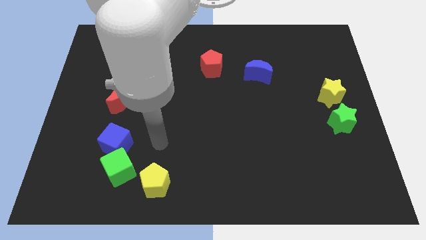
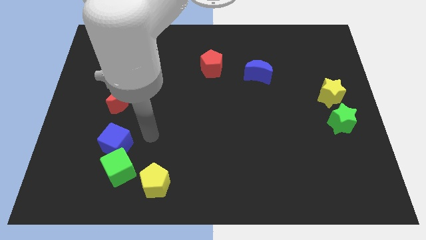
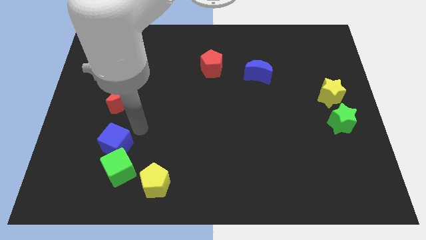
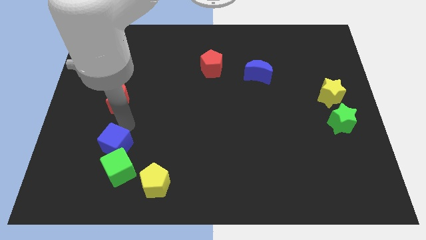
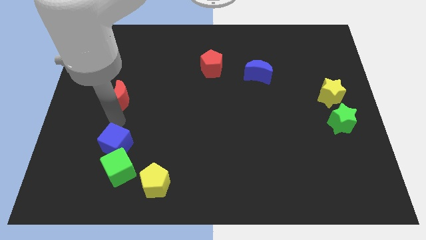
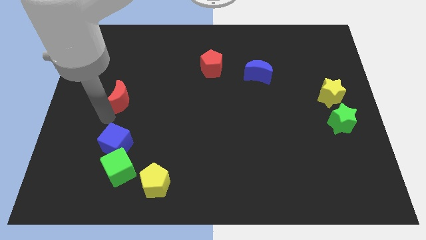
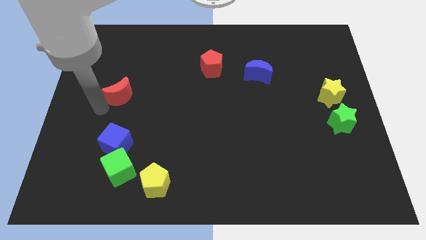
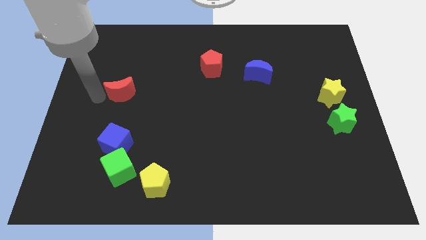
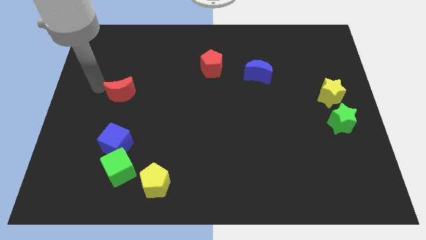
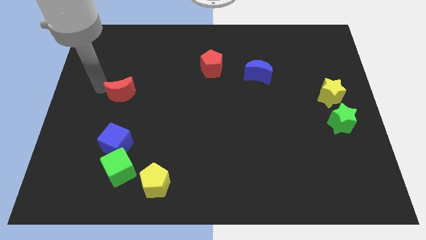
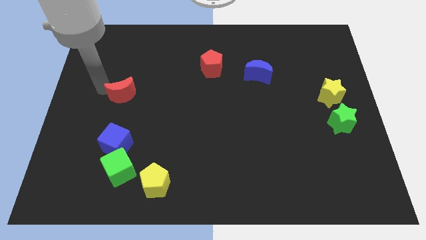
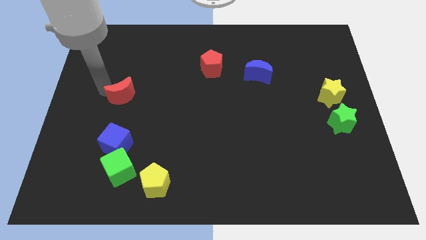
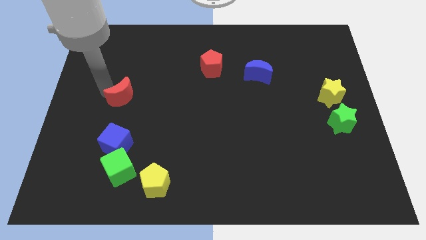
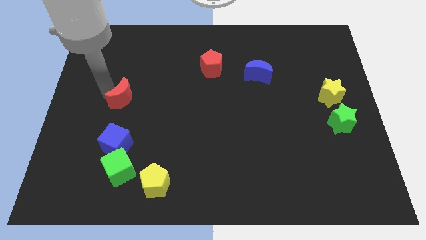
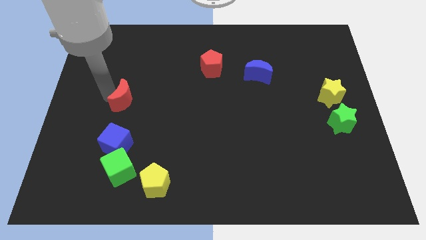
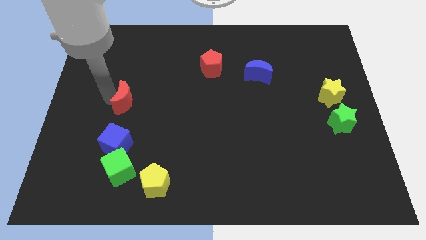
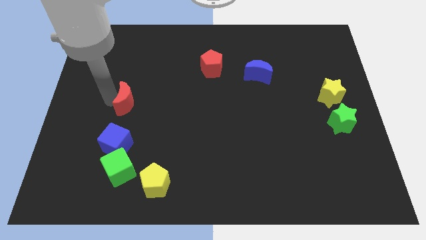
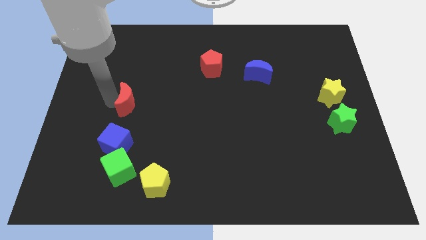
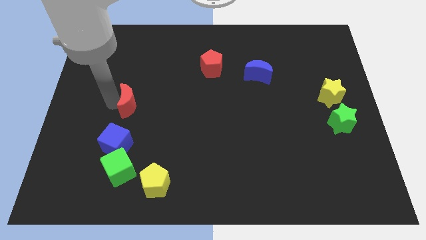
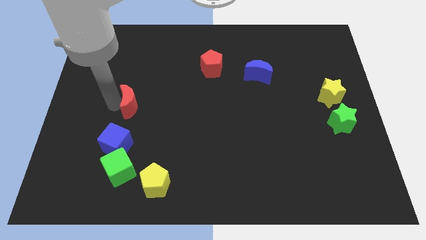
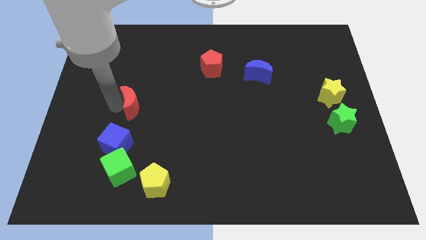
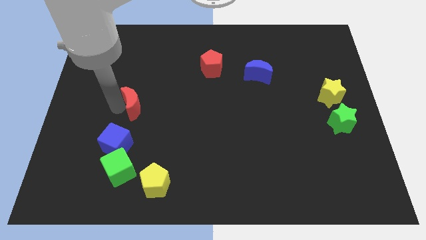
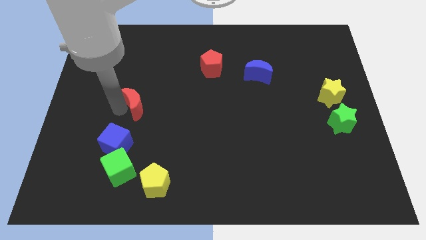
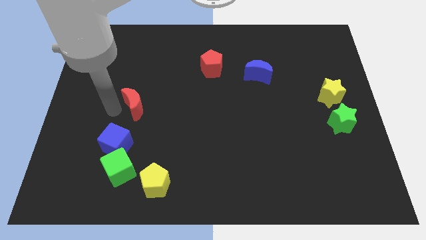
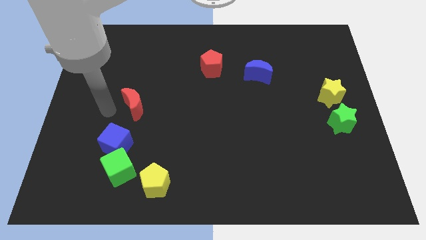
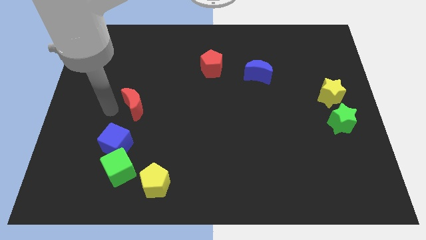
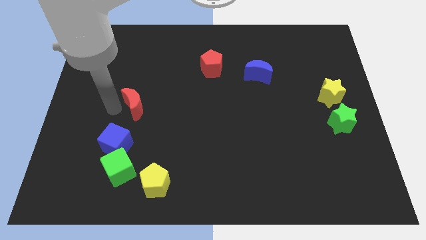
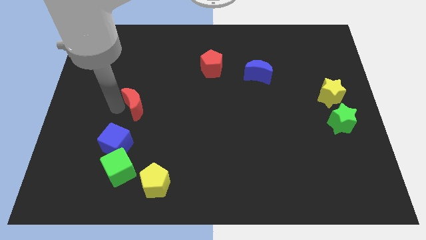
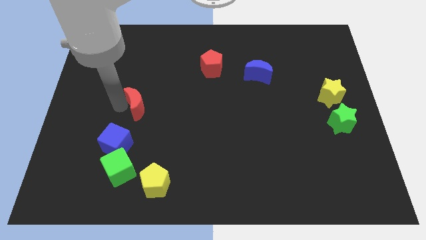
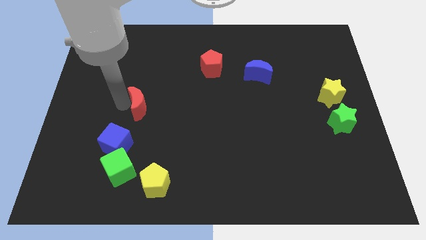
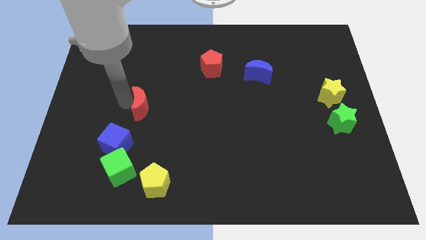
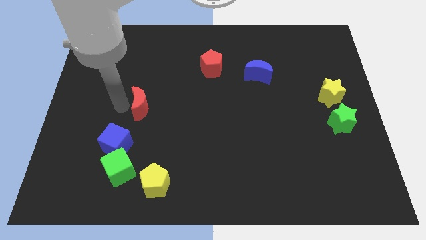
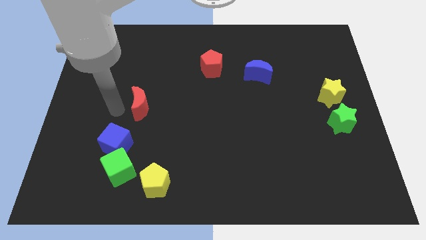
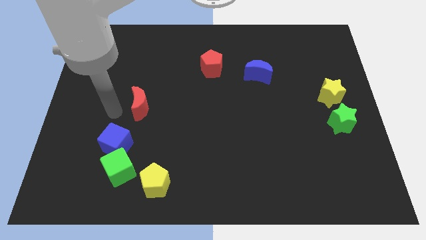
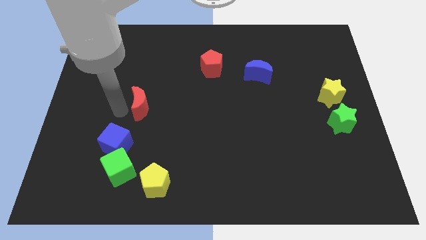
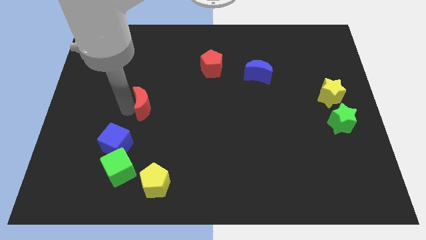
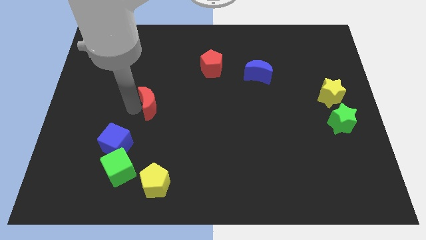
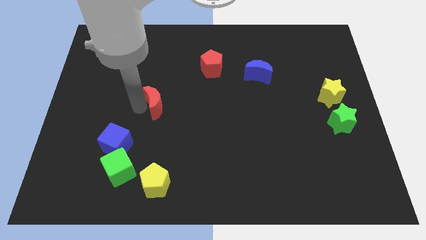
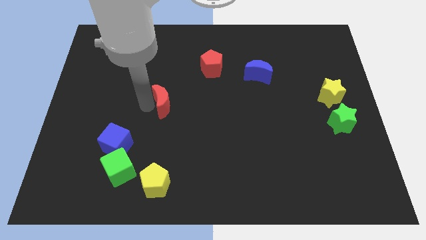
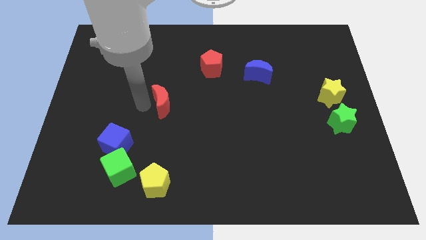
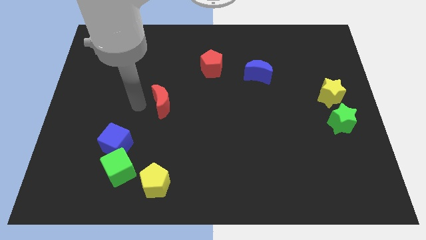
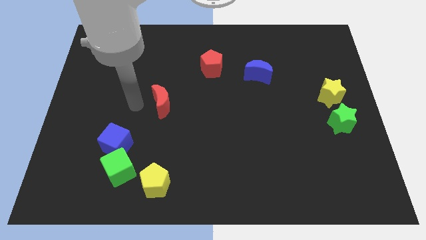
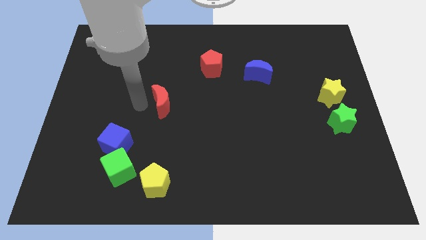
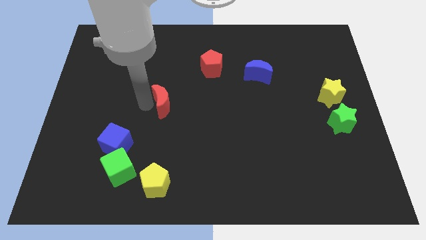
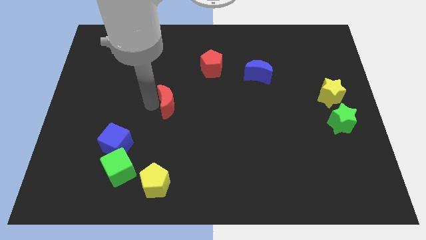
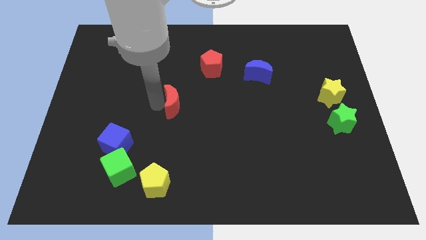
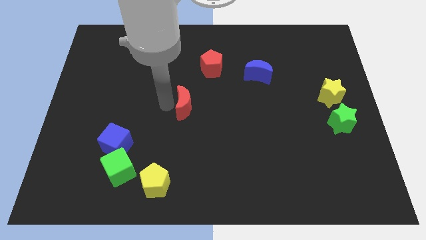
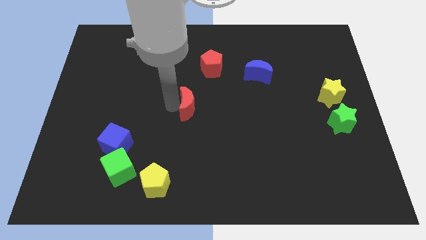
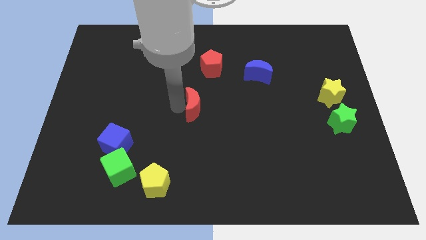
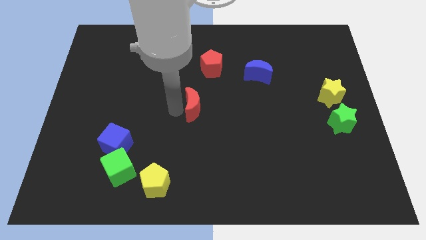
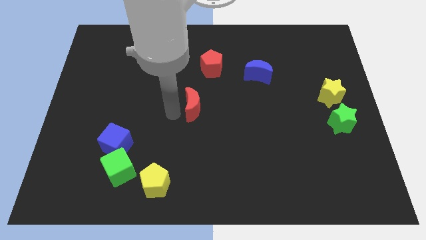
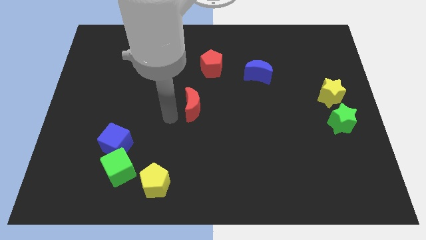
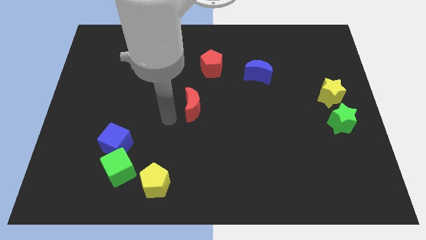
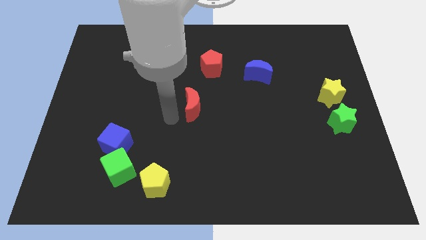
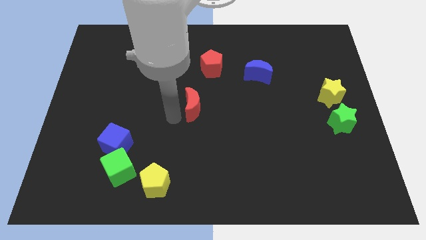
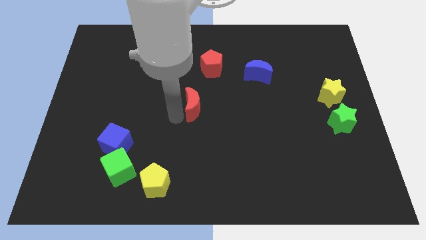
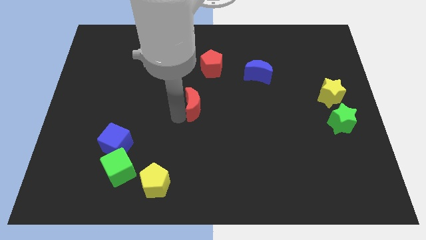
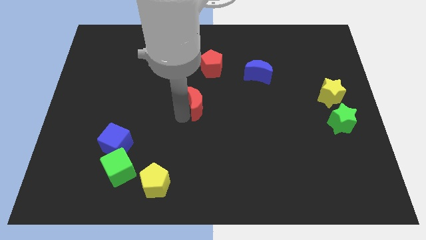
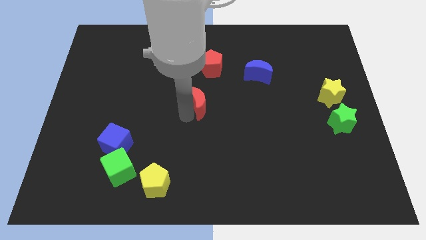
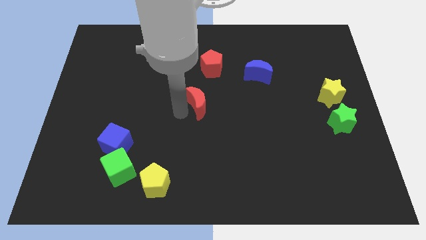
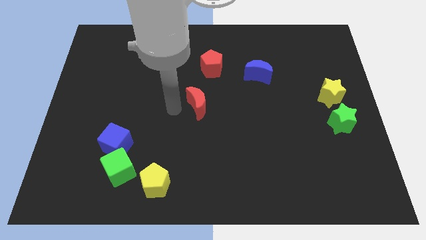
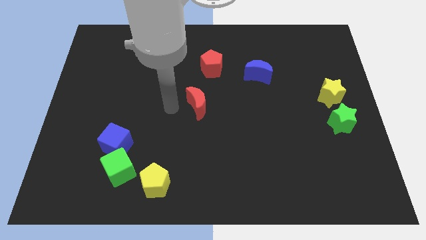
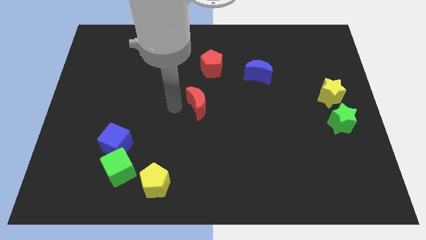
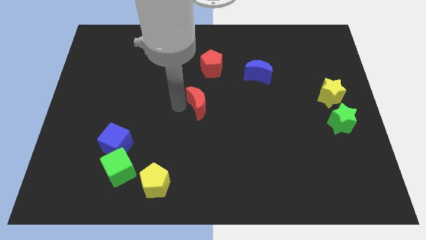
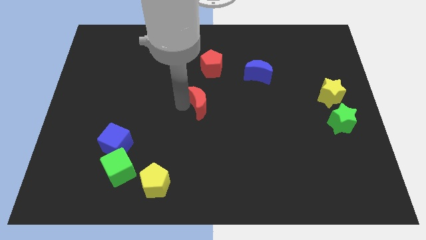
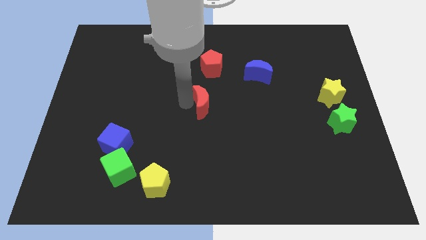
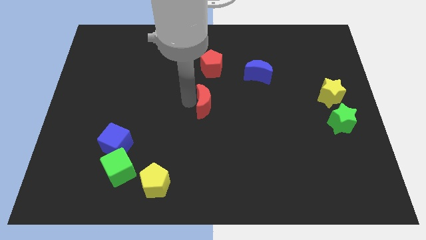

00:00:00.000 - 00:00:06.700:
slide the red moon to the right

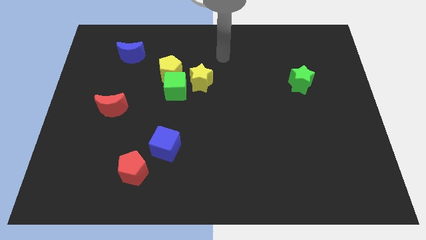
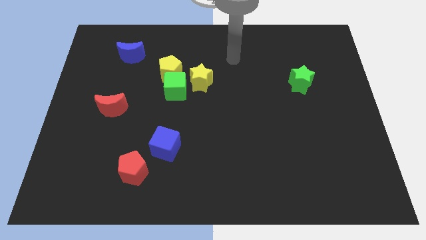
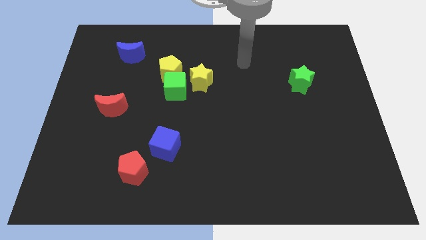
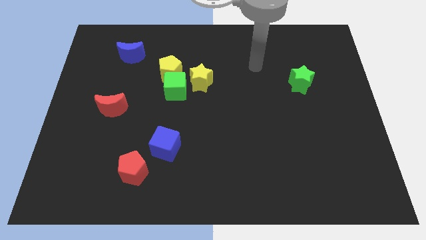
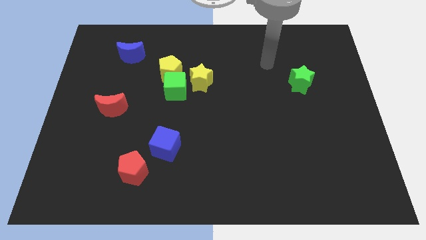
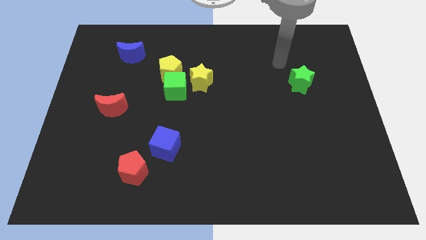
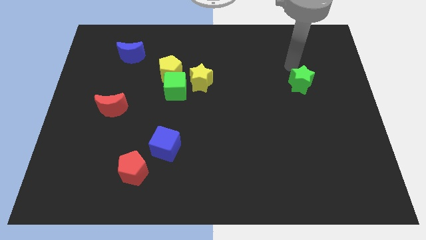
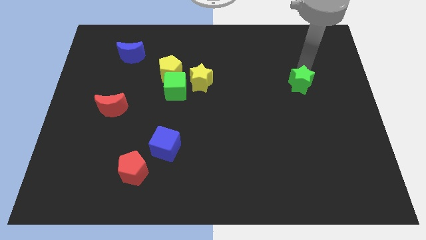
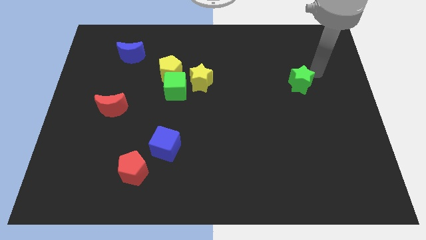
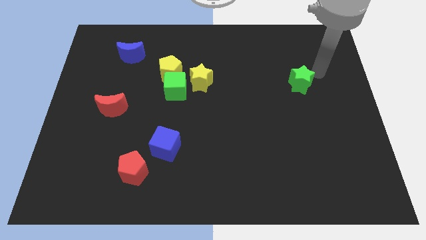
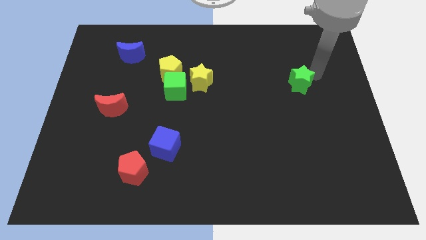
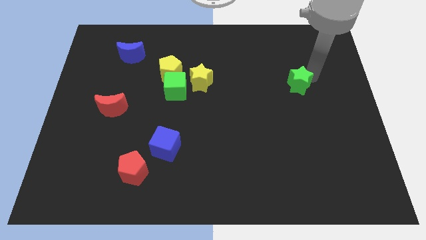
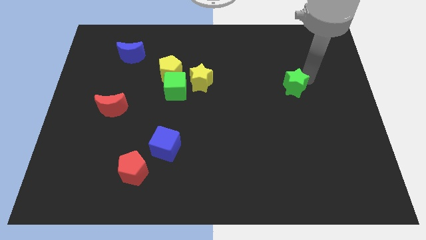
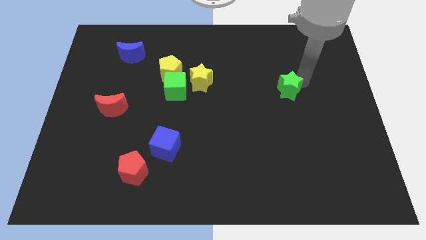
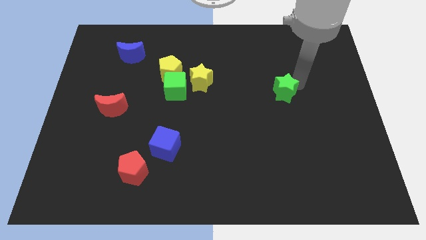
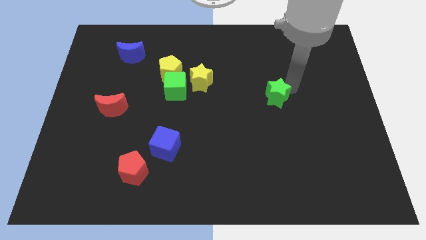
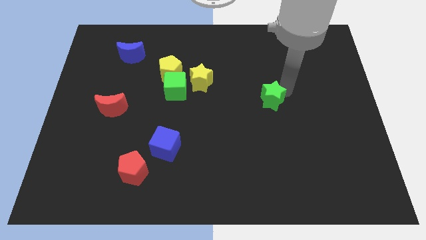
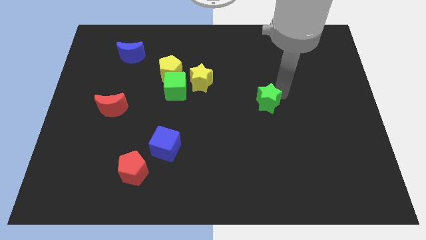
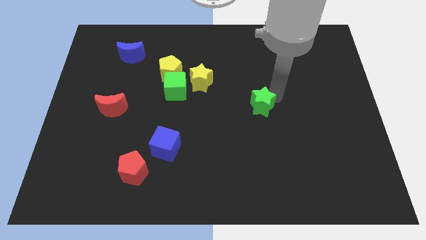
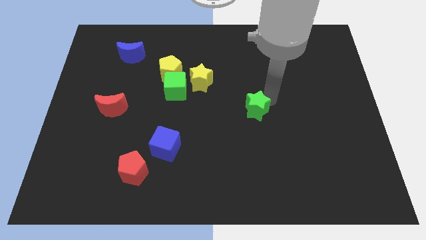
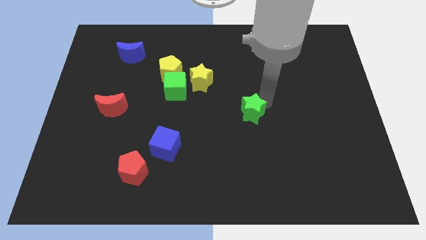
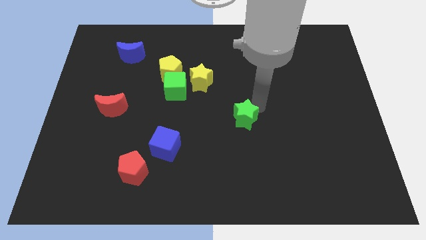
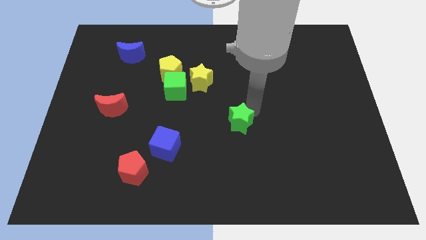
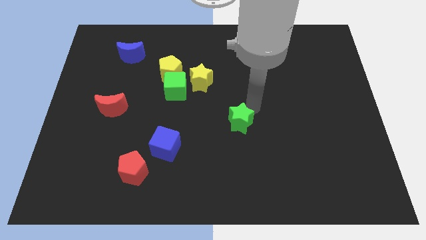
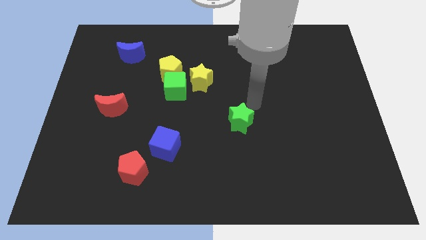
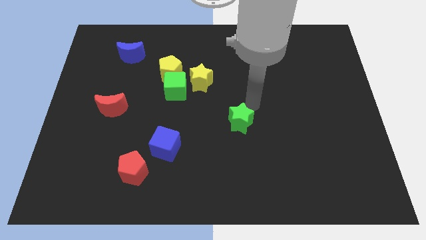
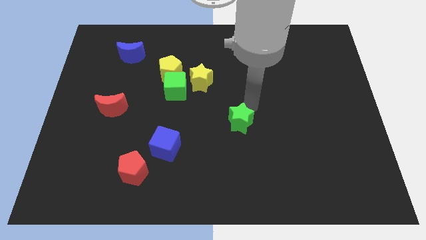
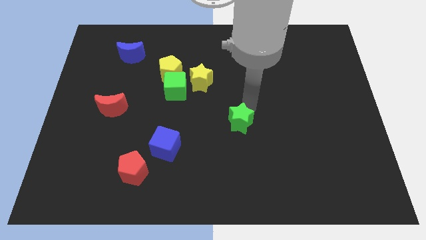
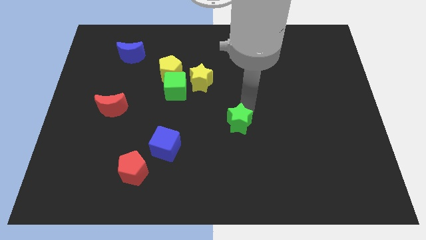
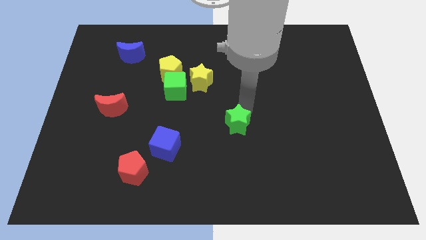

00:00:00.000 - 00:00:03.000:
move the green star down and then to the left
